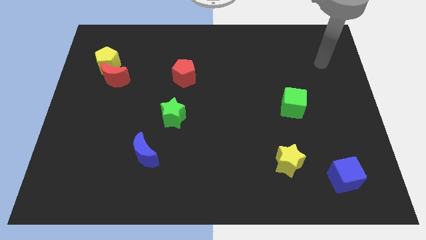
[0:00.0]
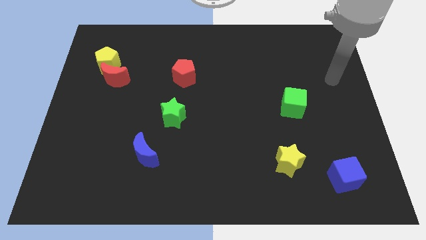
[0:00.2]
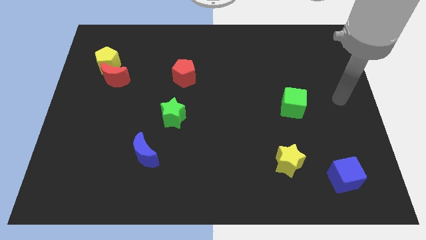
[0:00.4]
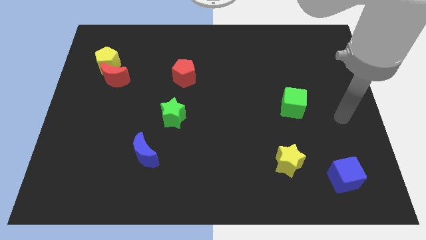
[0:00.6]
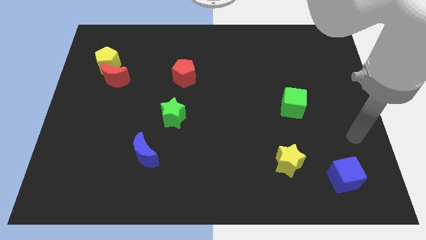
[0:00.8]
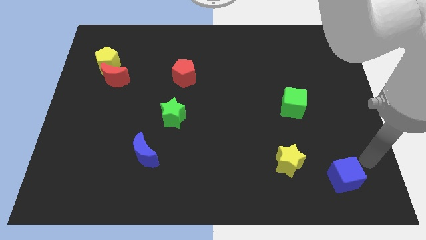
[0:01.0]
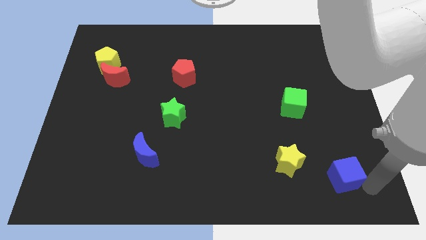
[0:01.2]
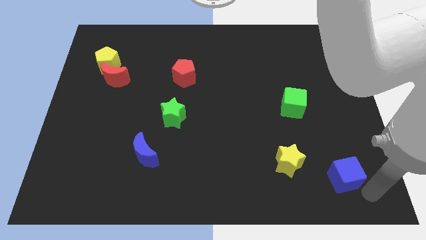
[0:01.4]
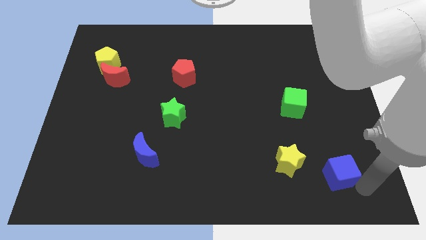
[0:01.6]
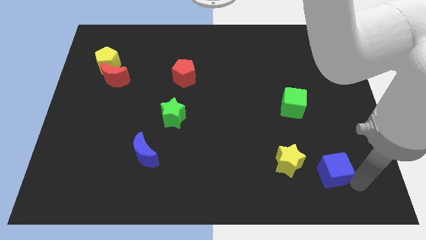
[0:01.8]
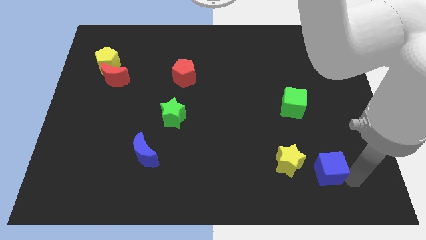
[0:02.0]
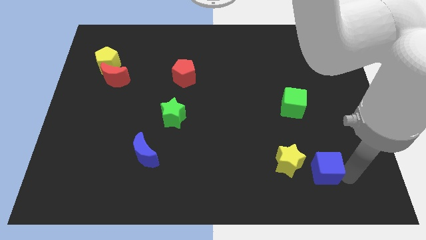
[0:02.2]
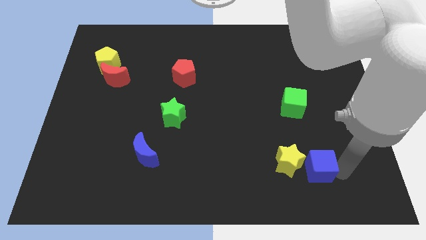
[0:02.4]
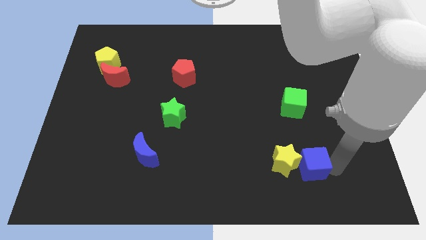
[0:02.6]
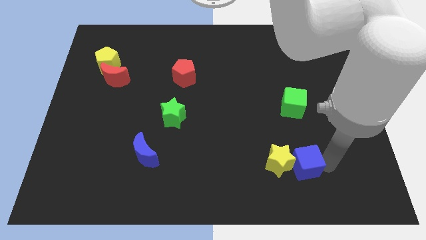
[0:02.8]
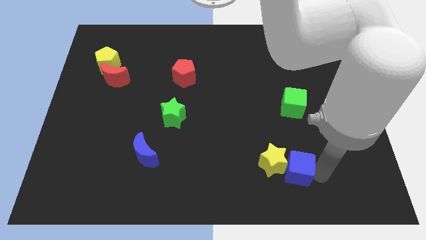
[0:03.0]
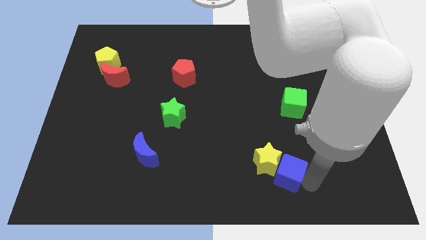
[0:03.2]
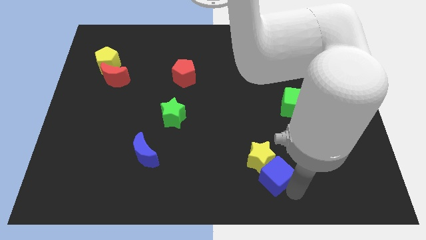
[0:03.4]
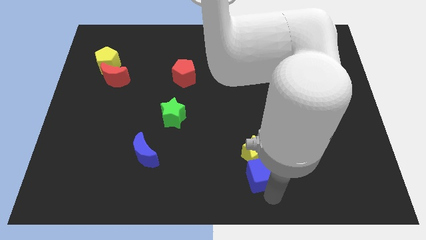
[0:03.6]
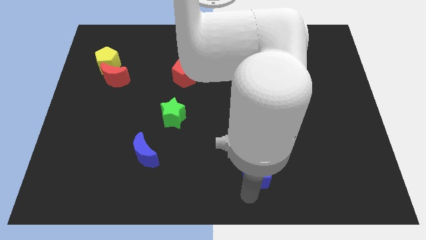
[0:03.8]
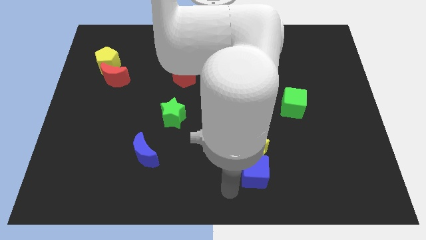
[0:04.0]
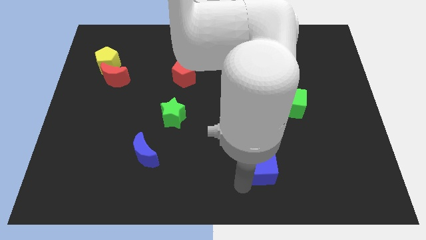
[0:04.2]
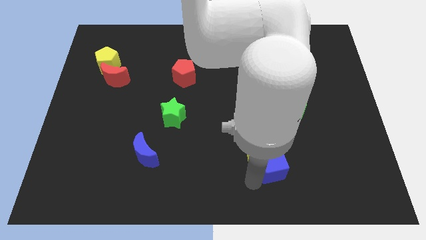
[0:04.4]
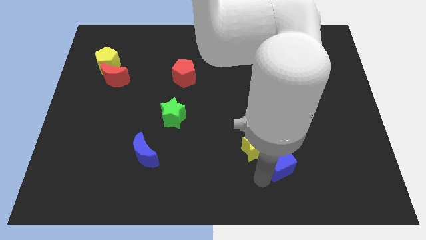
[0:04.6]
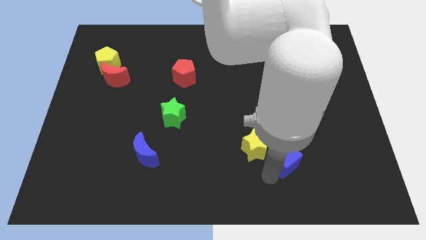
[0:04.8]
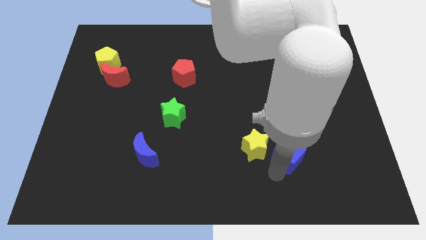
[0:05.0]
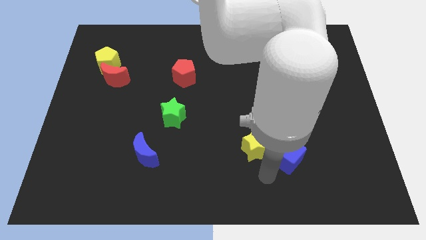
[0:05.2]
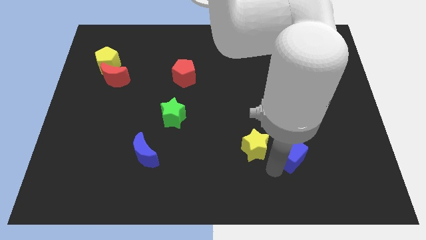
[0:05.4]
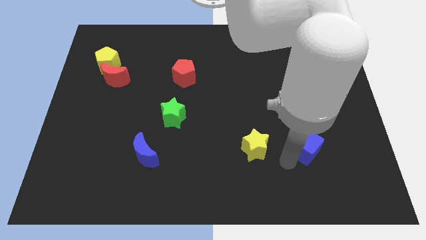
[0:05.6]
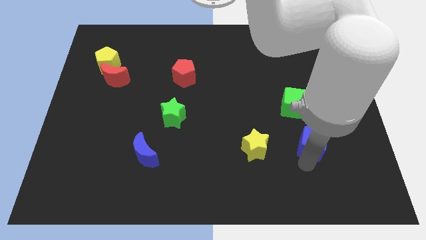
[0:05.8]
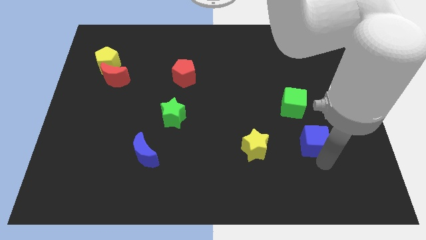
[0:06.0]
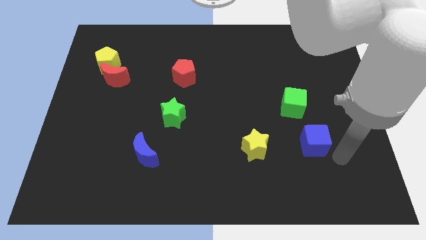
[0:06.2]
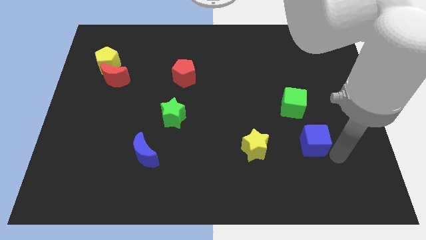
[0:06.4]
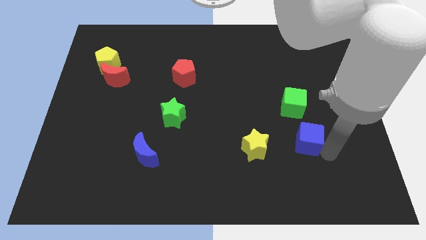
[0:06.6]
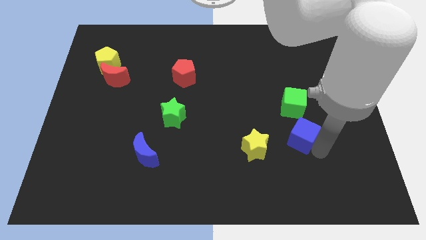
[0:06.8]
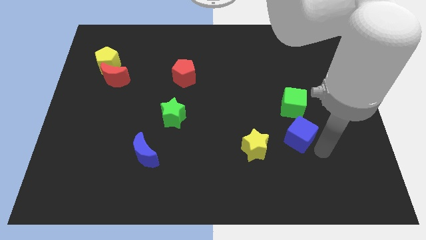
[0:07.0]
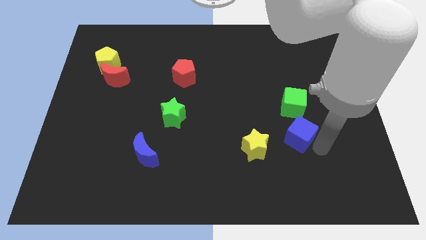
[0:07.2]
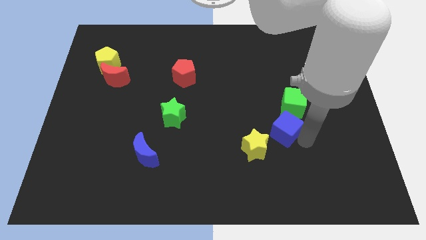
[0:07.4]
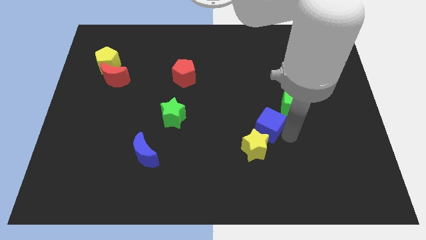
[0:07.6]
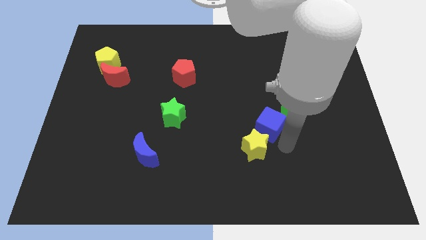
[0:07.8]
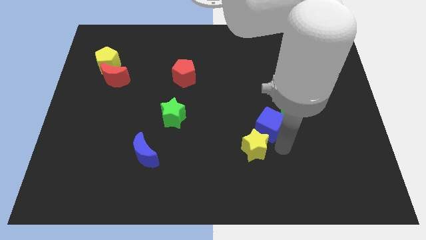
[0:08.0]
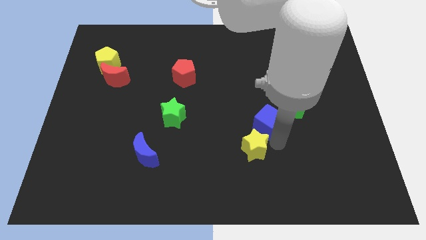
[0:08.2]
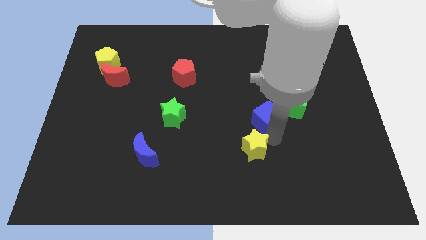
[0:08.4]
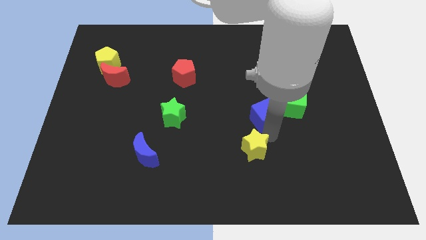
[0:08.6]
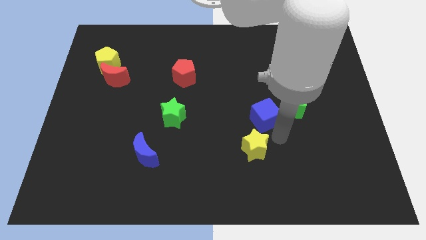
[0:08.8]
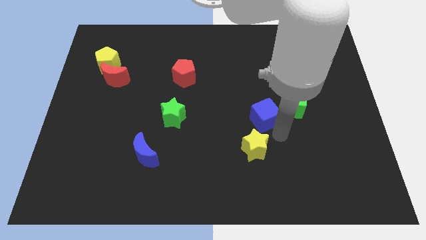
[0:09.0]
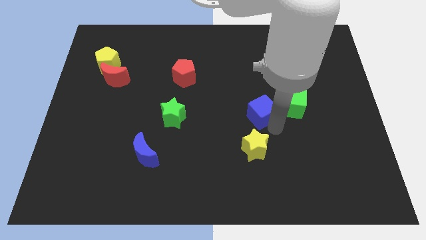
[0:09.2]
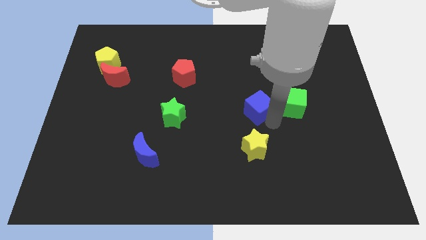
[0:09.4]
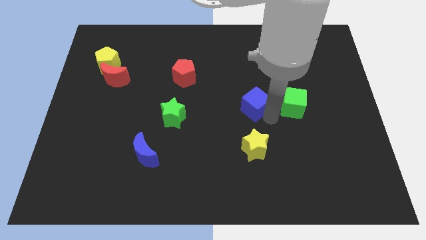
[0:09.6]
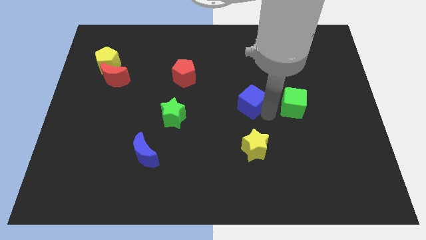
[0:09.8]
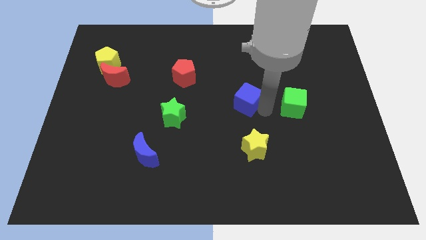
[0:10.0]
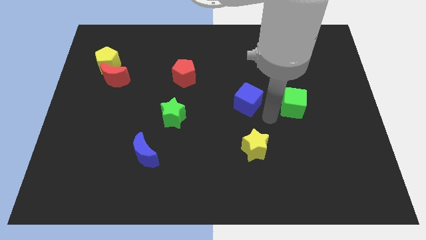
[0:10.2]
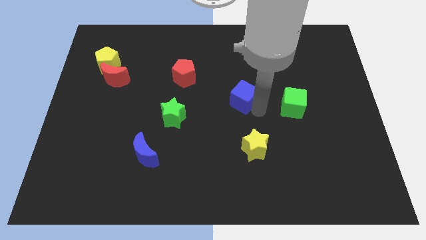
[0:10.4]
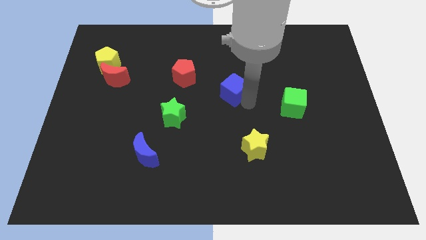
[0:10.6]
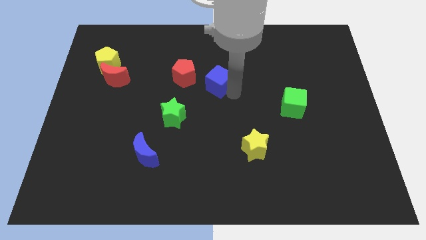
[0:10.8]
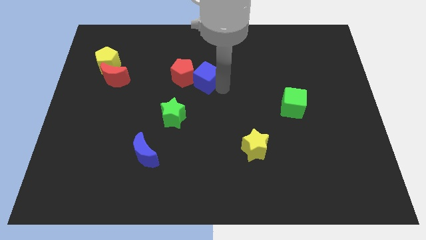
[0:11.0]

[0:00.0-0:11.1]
put the blue cube next to the red pentagon

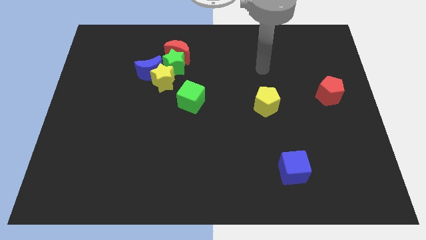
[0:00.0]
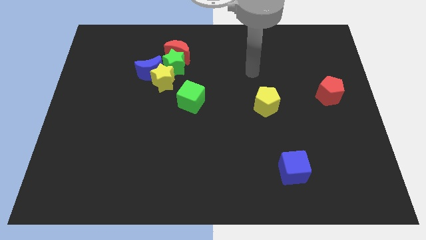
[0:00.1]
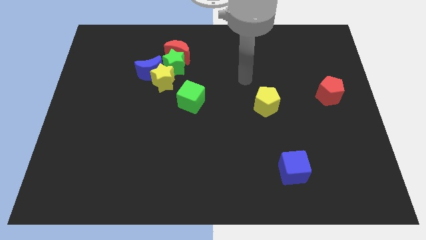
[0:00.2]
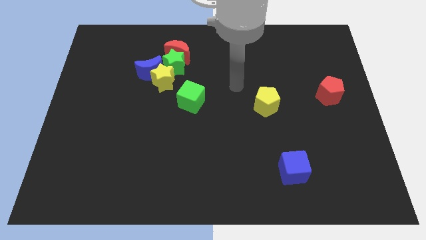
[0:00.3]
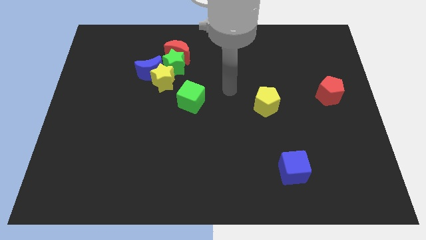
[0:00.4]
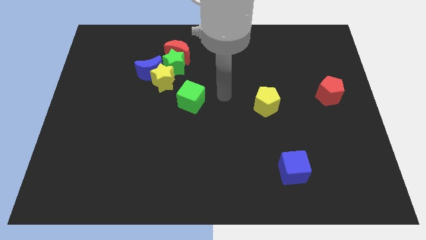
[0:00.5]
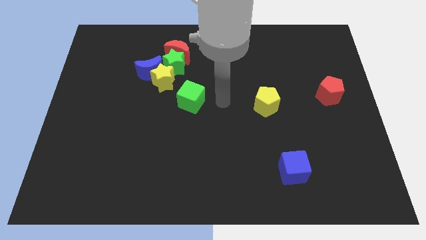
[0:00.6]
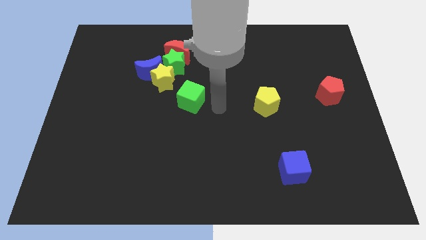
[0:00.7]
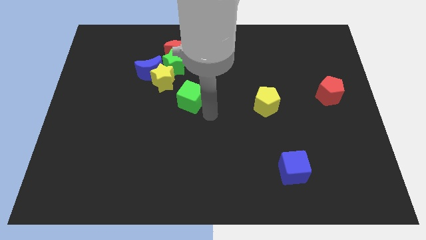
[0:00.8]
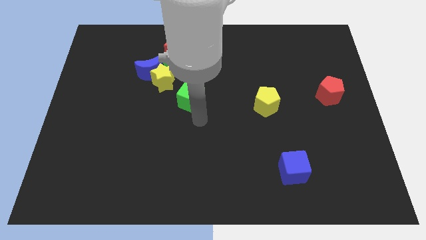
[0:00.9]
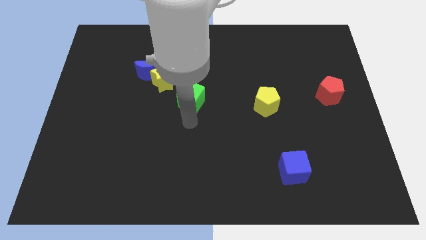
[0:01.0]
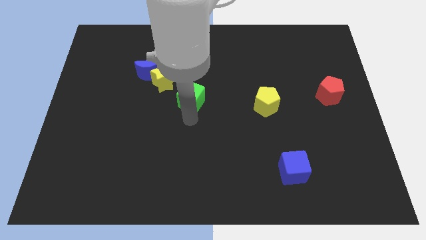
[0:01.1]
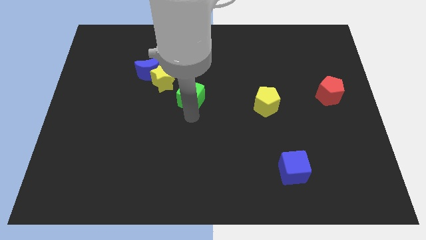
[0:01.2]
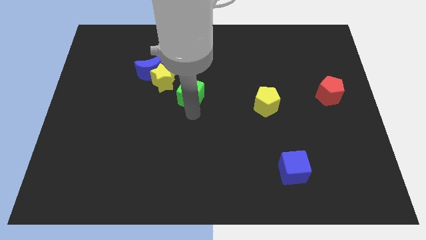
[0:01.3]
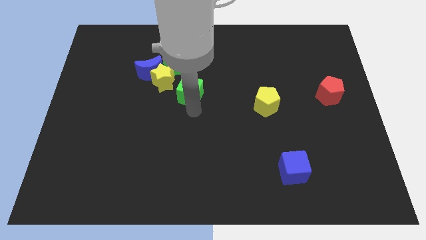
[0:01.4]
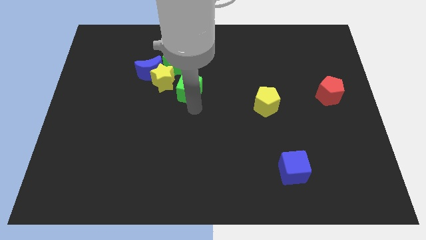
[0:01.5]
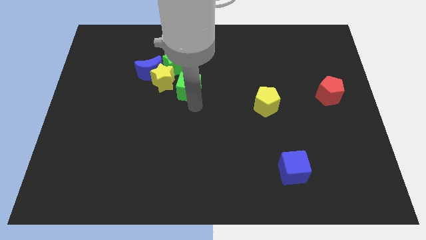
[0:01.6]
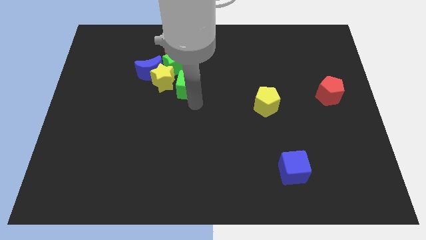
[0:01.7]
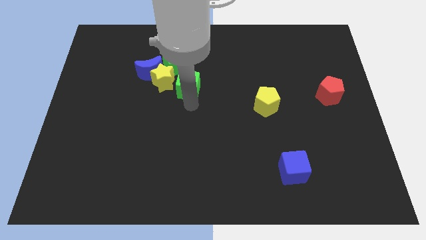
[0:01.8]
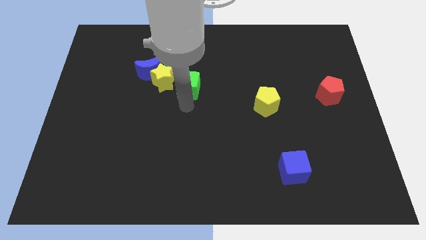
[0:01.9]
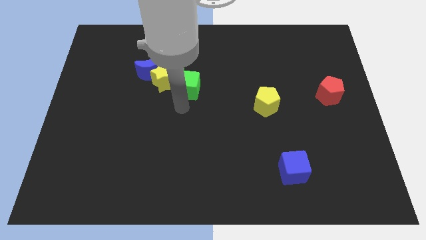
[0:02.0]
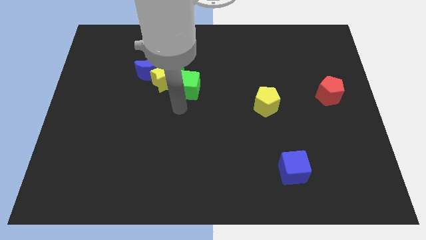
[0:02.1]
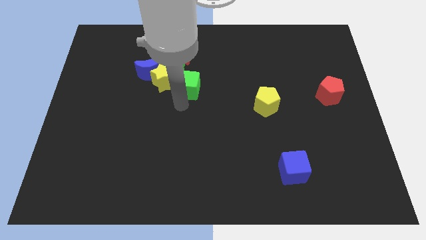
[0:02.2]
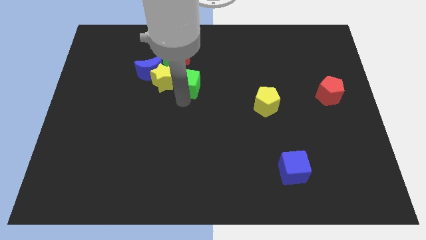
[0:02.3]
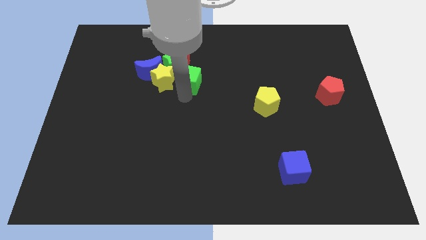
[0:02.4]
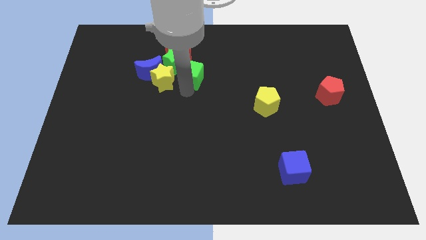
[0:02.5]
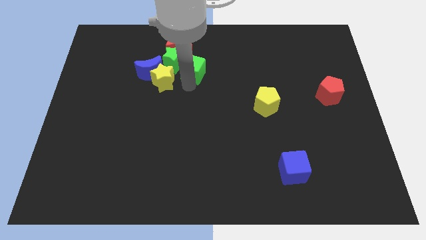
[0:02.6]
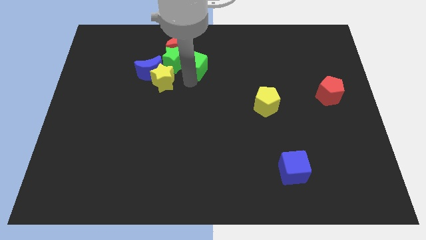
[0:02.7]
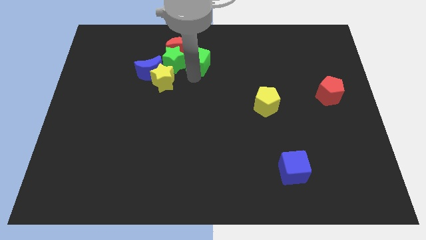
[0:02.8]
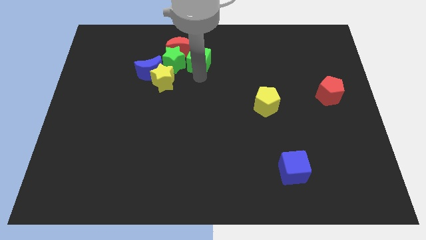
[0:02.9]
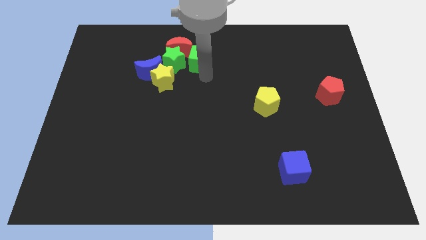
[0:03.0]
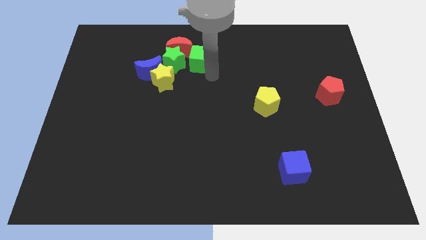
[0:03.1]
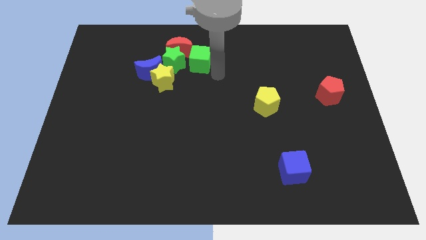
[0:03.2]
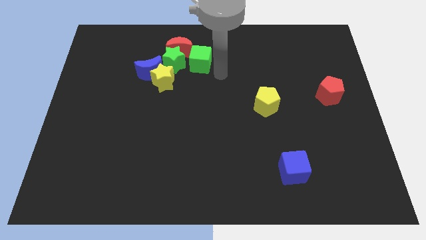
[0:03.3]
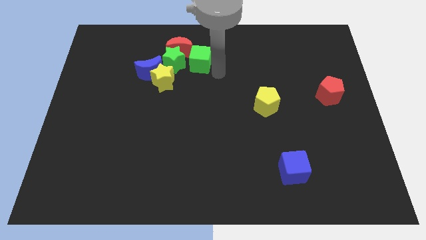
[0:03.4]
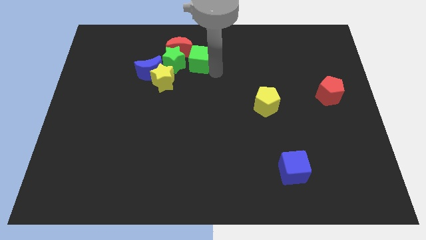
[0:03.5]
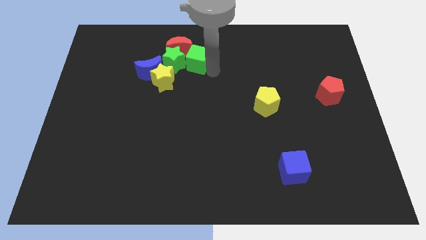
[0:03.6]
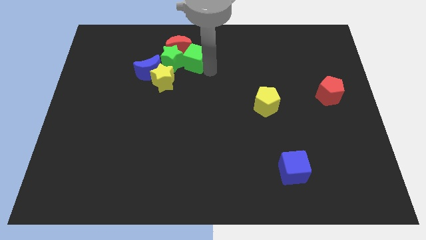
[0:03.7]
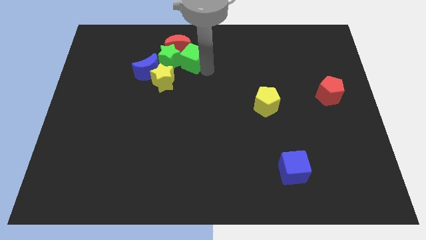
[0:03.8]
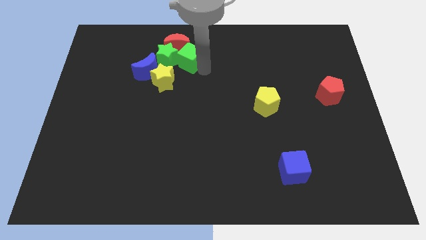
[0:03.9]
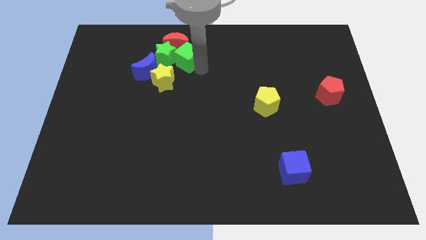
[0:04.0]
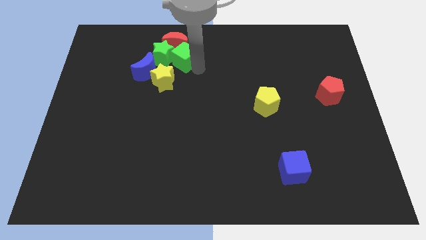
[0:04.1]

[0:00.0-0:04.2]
put the green cube next to the red moon
